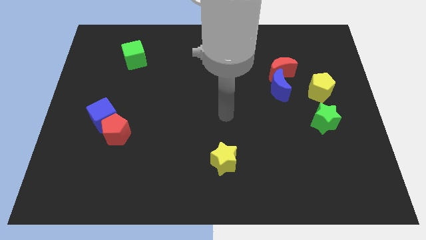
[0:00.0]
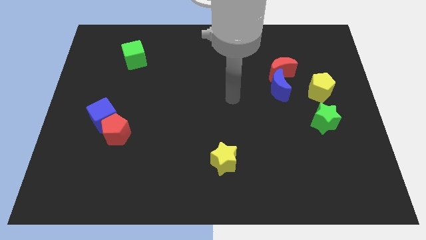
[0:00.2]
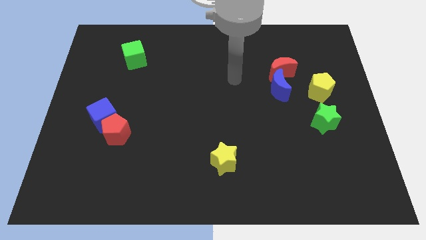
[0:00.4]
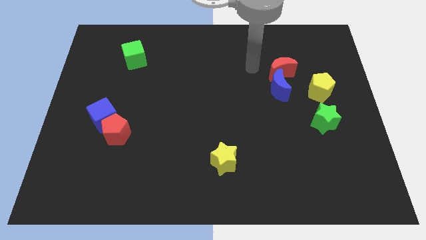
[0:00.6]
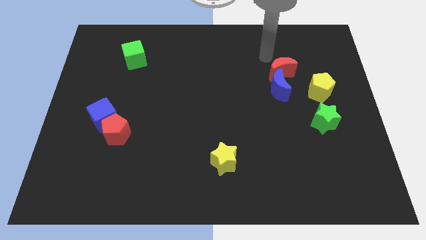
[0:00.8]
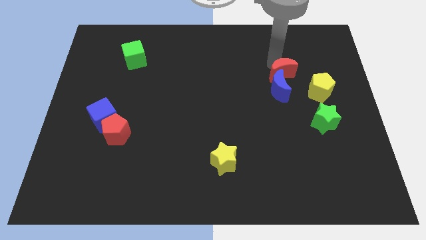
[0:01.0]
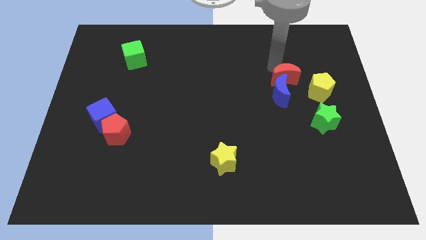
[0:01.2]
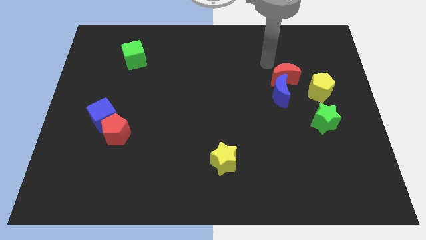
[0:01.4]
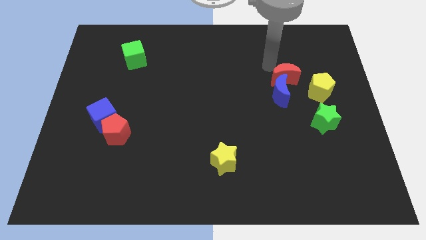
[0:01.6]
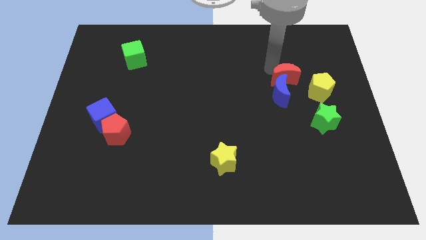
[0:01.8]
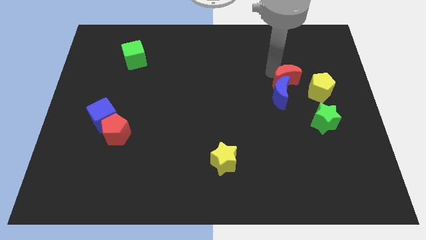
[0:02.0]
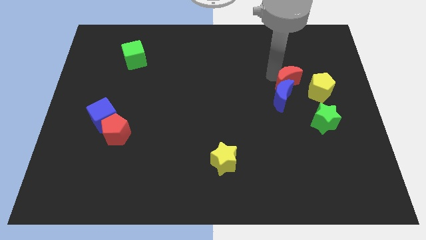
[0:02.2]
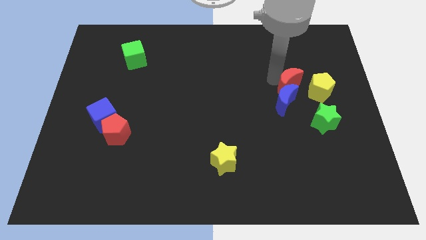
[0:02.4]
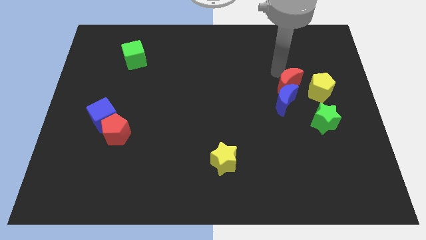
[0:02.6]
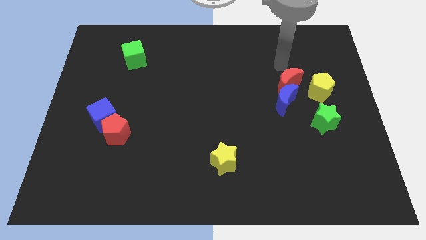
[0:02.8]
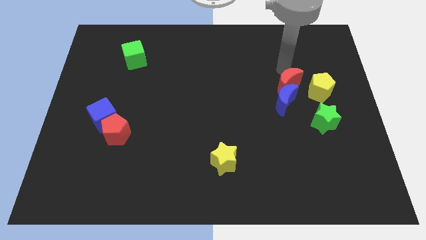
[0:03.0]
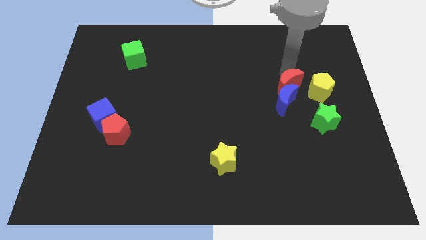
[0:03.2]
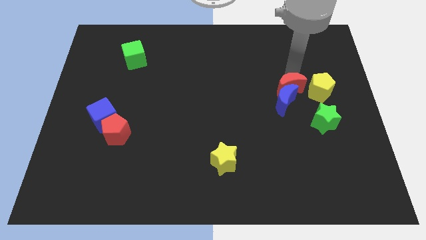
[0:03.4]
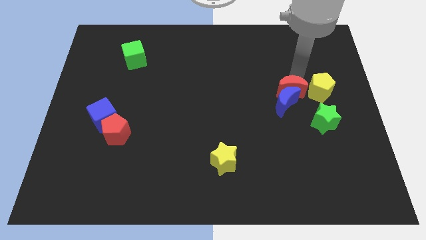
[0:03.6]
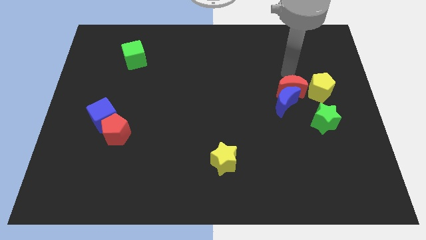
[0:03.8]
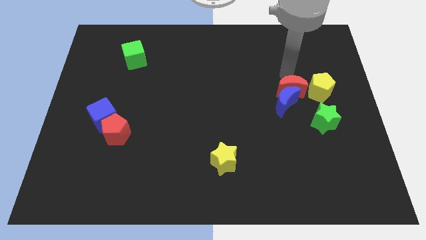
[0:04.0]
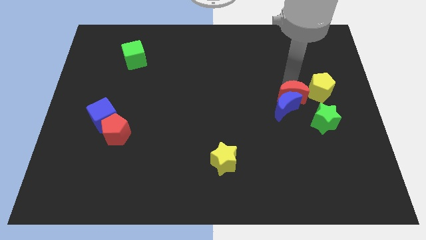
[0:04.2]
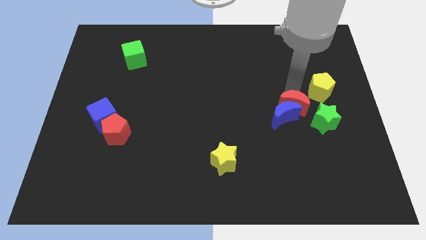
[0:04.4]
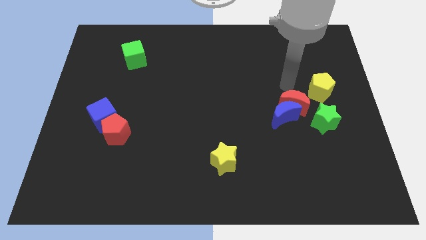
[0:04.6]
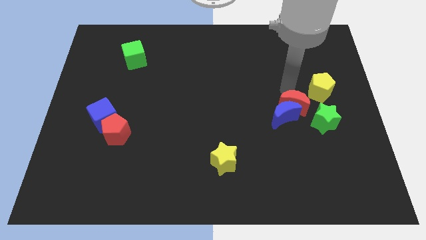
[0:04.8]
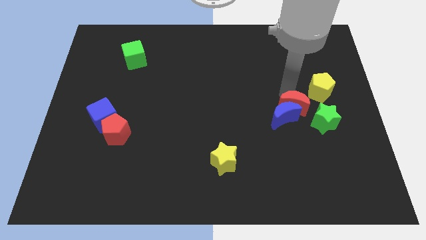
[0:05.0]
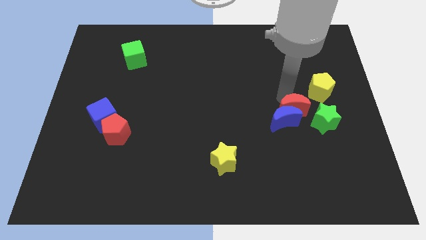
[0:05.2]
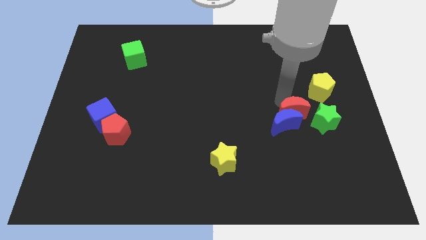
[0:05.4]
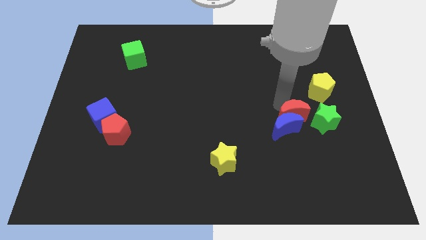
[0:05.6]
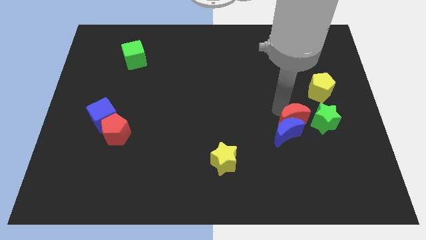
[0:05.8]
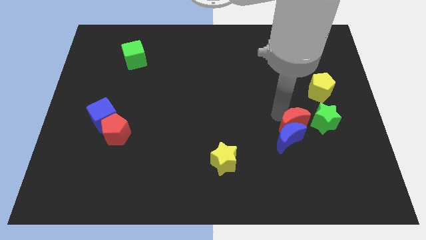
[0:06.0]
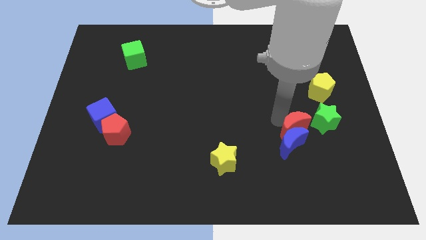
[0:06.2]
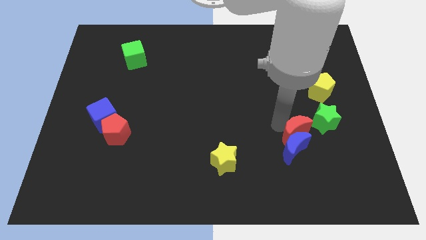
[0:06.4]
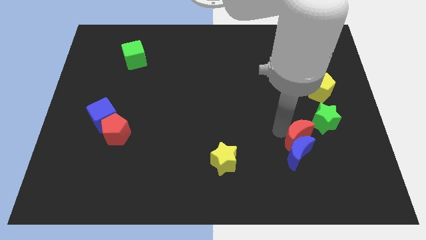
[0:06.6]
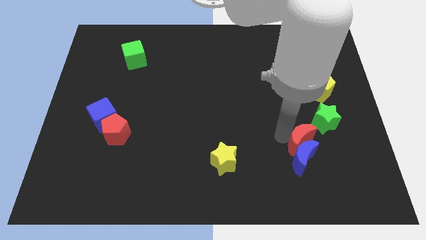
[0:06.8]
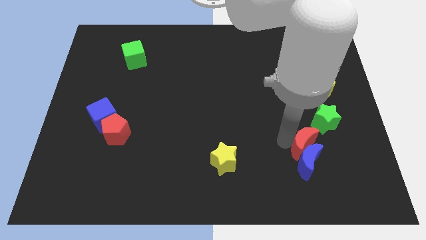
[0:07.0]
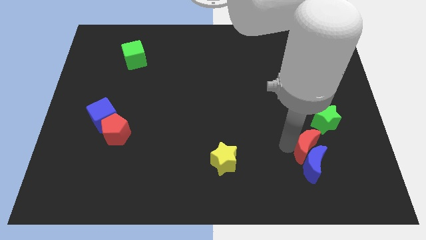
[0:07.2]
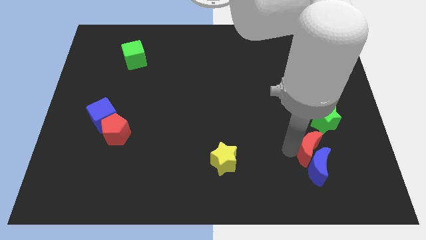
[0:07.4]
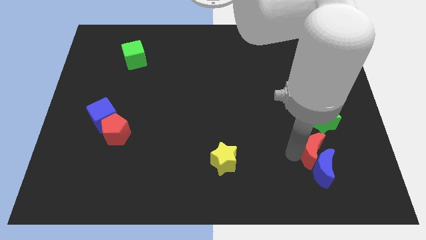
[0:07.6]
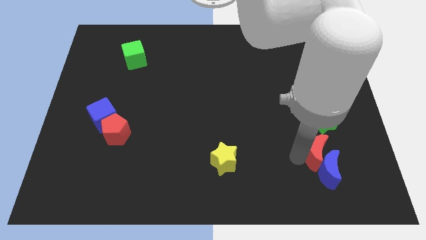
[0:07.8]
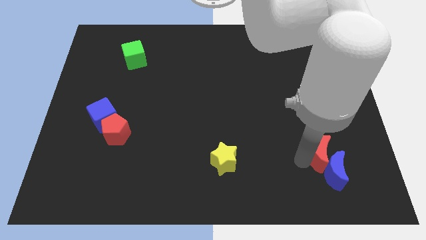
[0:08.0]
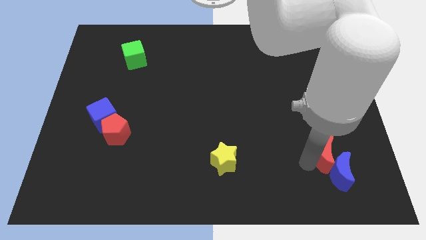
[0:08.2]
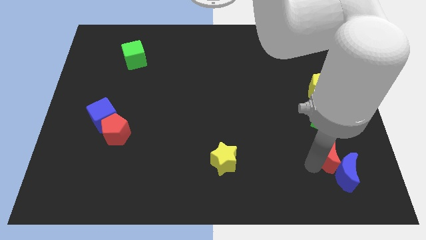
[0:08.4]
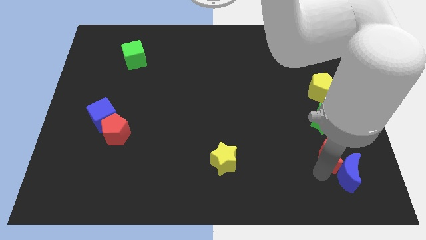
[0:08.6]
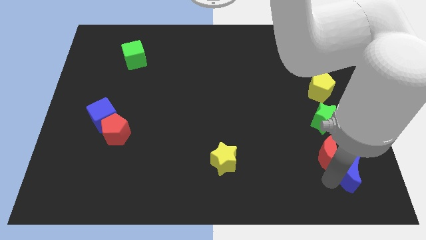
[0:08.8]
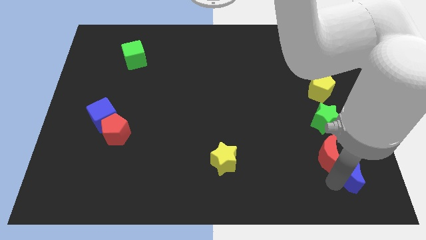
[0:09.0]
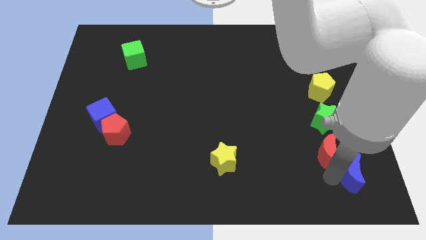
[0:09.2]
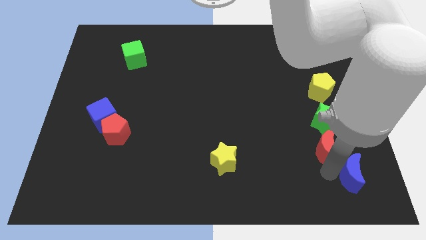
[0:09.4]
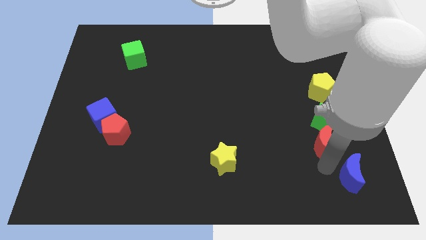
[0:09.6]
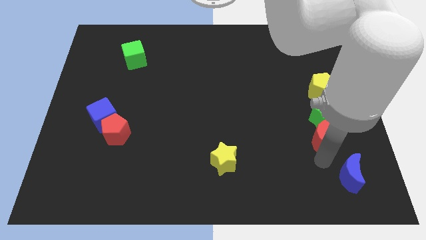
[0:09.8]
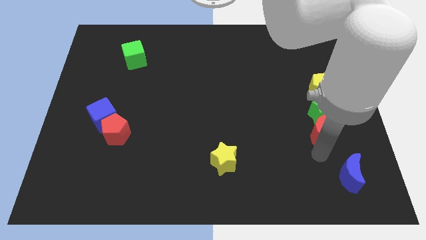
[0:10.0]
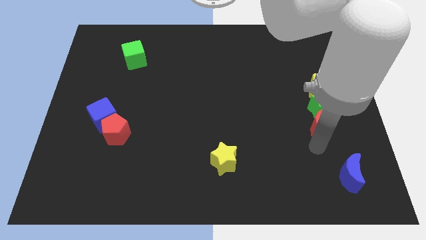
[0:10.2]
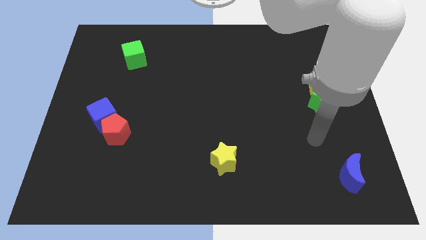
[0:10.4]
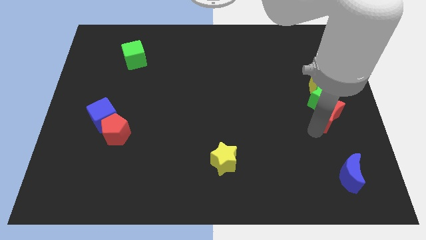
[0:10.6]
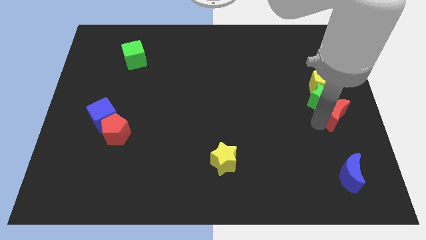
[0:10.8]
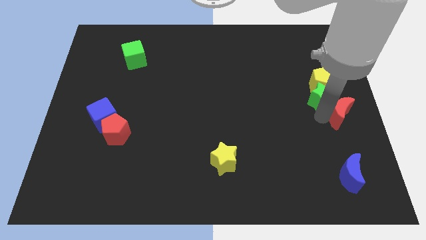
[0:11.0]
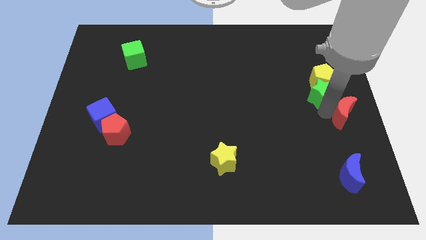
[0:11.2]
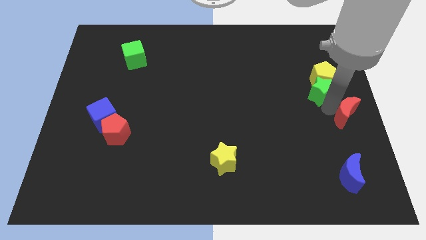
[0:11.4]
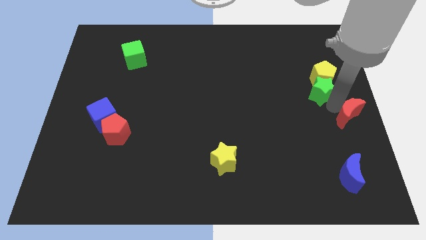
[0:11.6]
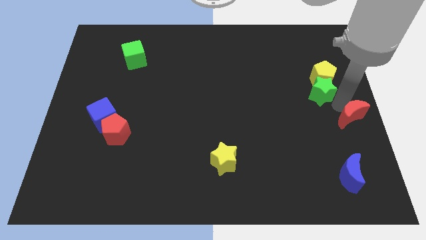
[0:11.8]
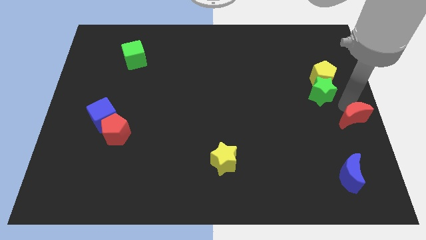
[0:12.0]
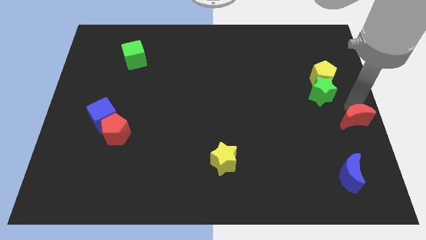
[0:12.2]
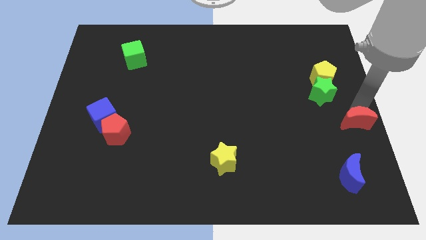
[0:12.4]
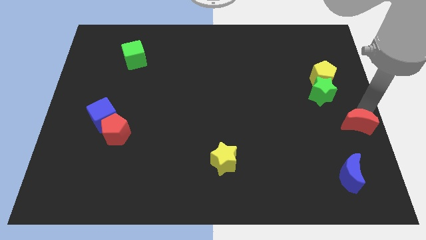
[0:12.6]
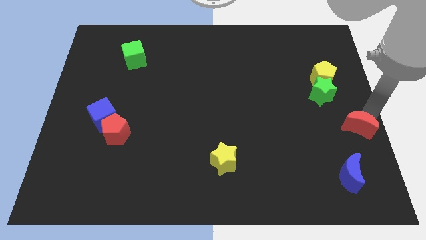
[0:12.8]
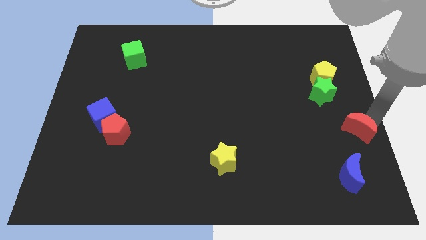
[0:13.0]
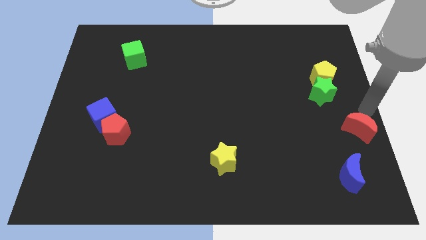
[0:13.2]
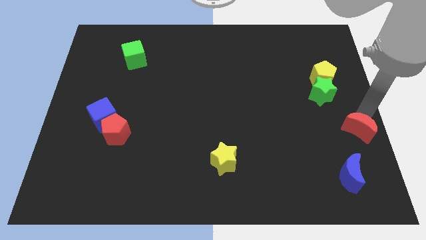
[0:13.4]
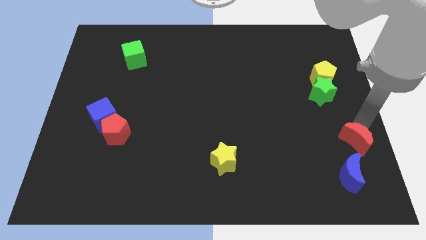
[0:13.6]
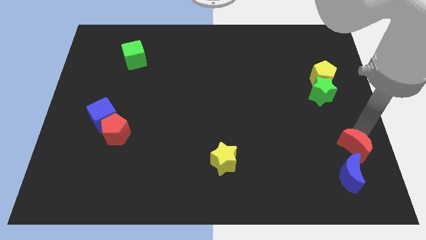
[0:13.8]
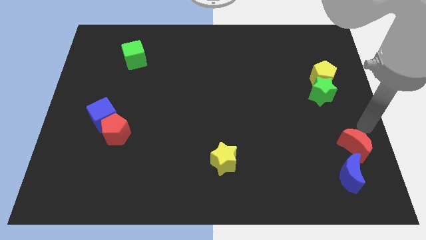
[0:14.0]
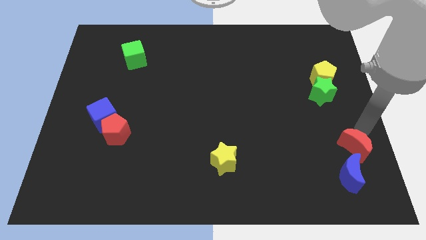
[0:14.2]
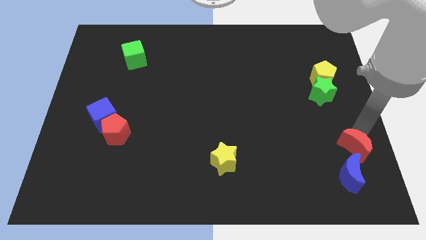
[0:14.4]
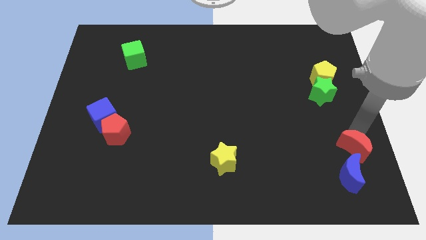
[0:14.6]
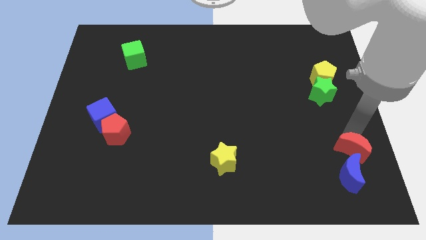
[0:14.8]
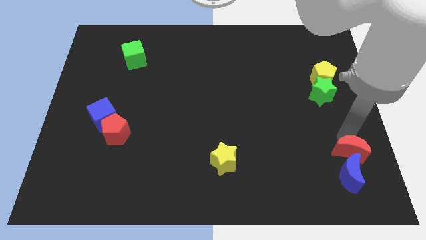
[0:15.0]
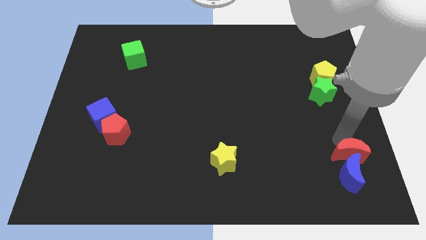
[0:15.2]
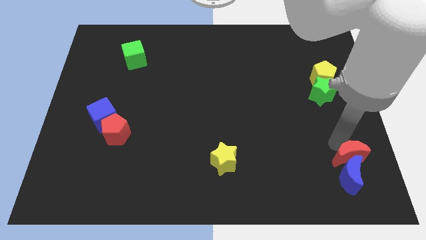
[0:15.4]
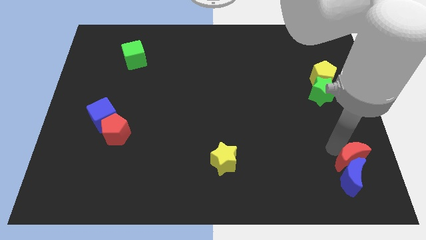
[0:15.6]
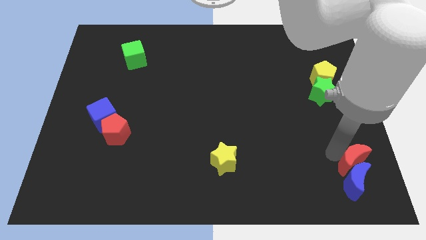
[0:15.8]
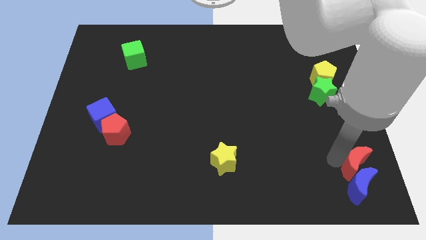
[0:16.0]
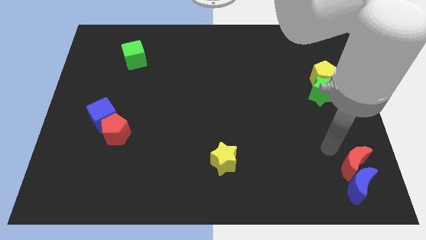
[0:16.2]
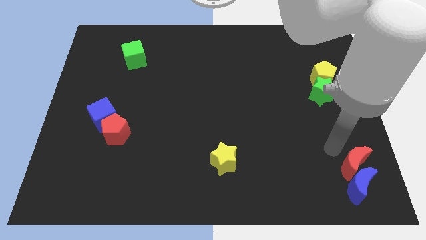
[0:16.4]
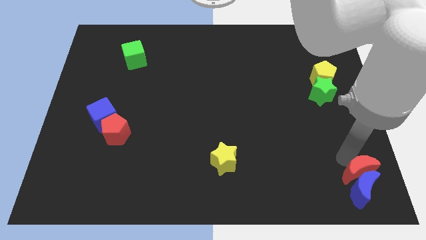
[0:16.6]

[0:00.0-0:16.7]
push the red moon to the bottom right
